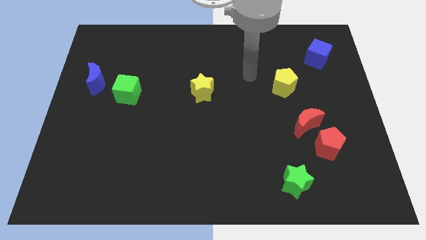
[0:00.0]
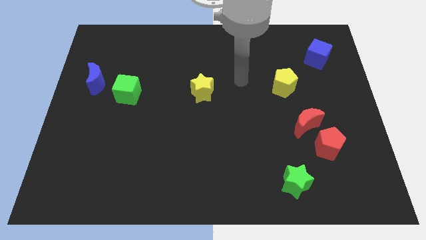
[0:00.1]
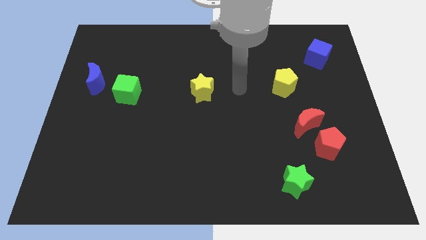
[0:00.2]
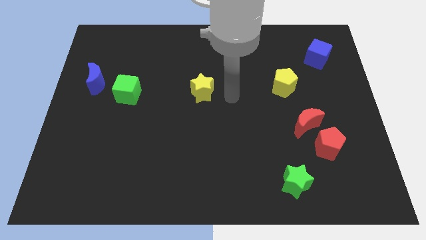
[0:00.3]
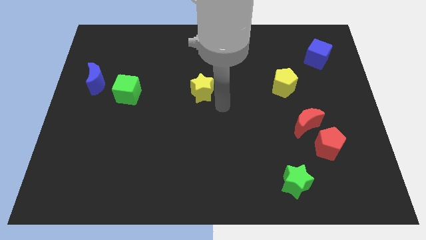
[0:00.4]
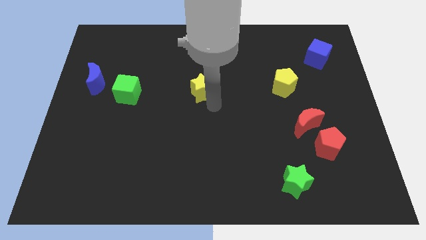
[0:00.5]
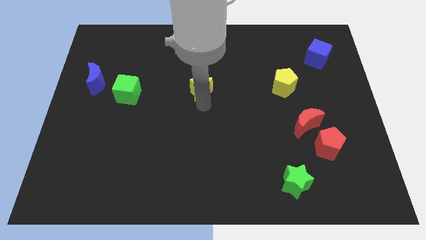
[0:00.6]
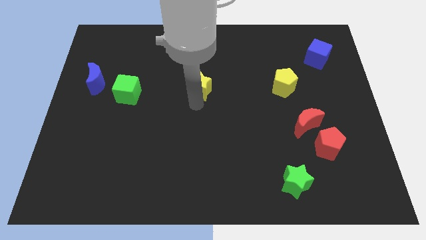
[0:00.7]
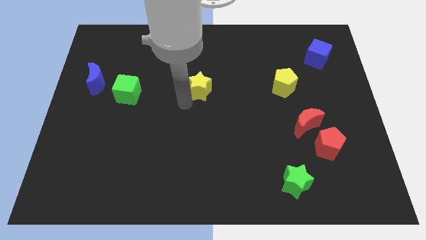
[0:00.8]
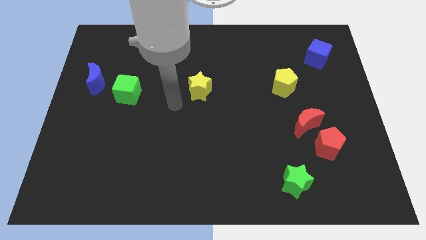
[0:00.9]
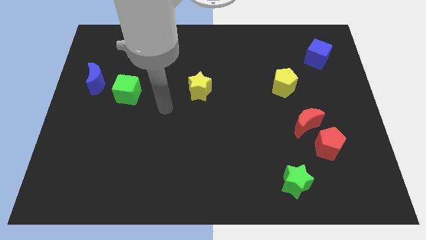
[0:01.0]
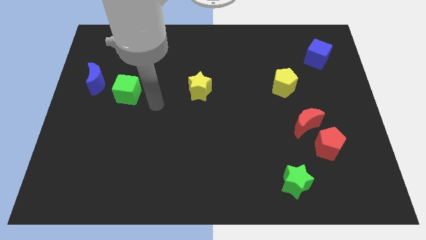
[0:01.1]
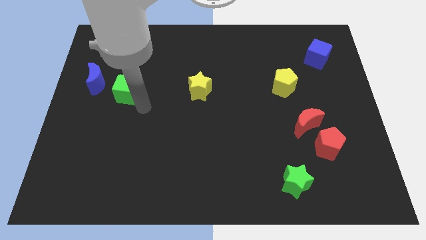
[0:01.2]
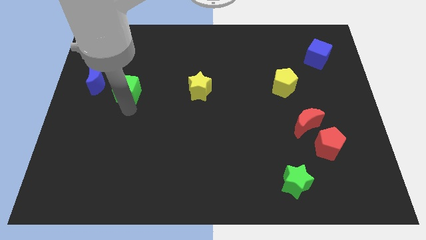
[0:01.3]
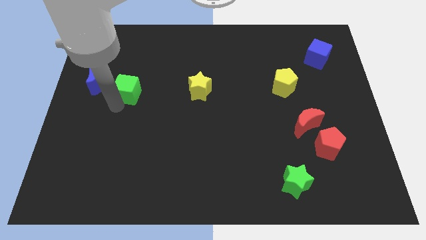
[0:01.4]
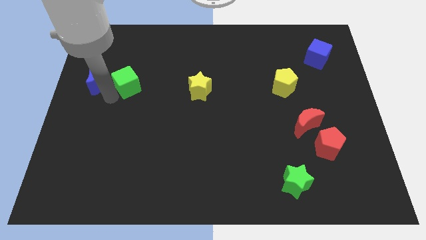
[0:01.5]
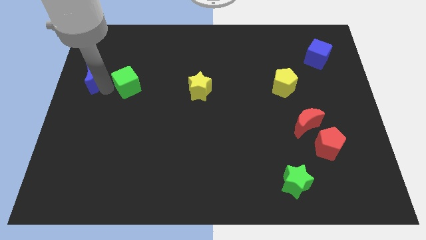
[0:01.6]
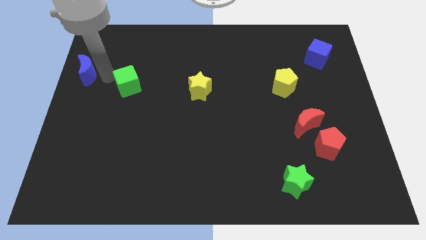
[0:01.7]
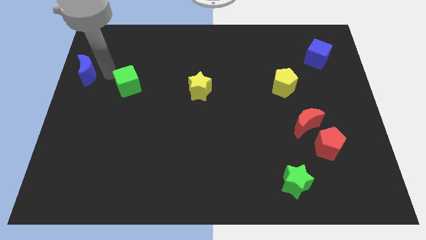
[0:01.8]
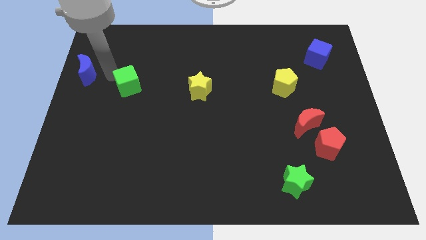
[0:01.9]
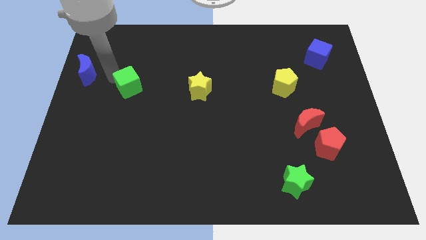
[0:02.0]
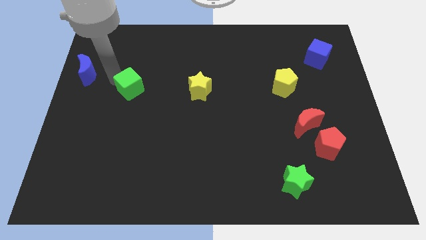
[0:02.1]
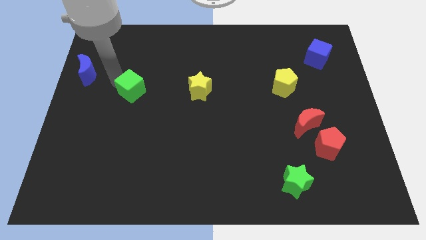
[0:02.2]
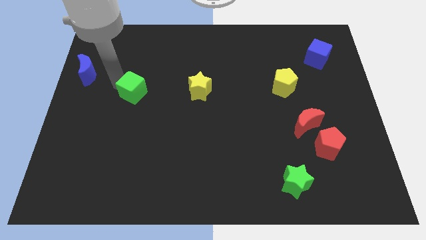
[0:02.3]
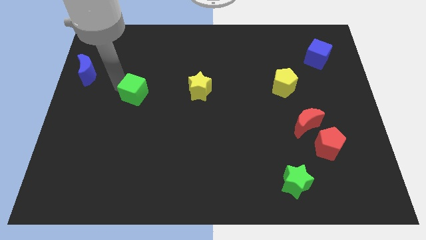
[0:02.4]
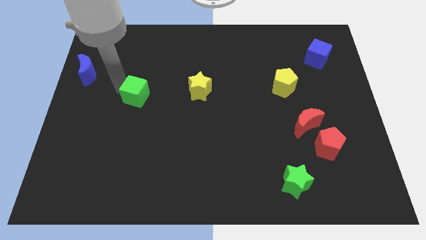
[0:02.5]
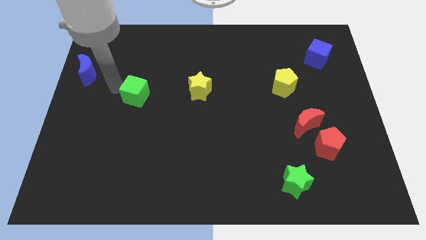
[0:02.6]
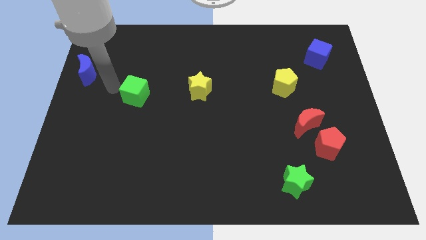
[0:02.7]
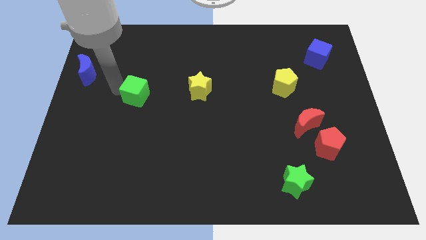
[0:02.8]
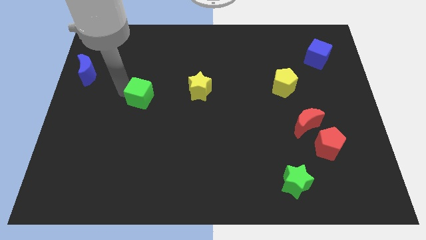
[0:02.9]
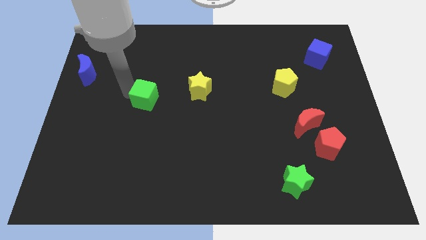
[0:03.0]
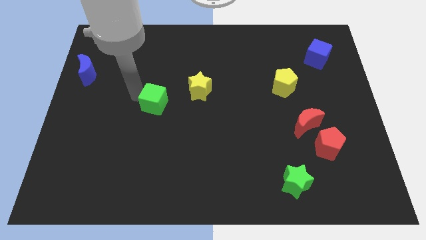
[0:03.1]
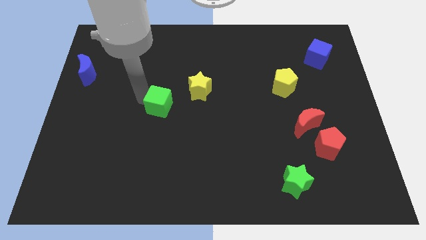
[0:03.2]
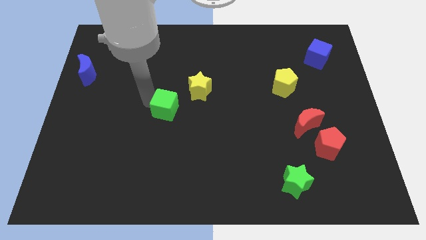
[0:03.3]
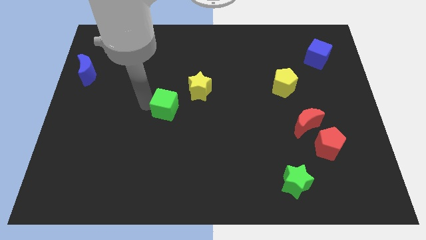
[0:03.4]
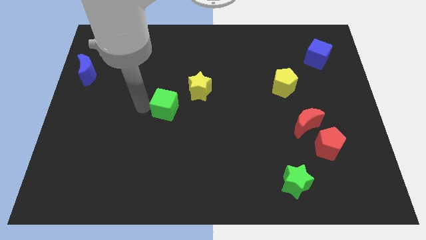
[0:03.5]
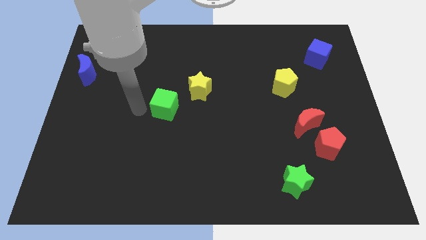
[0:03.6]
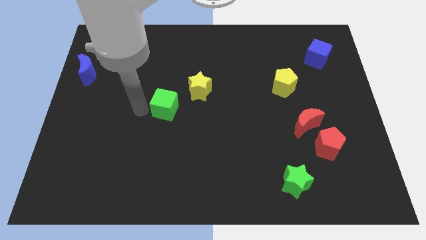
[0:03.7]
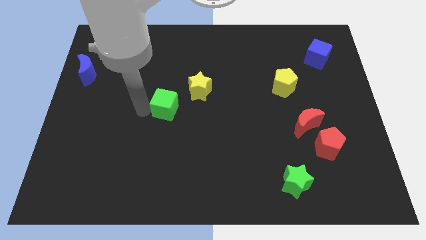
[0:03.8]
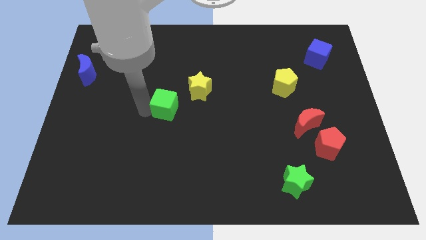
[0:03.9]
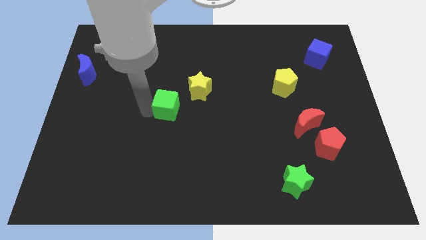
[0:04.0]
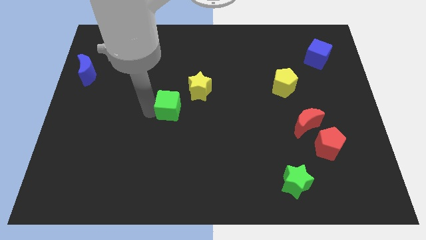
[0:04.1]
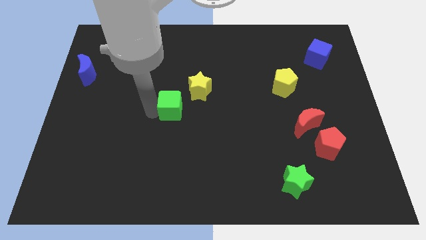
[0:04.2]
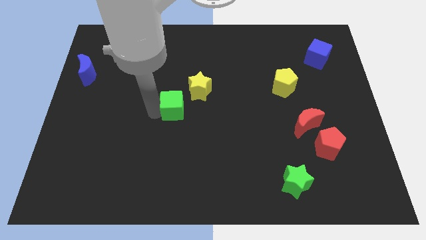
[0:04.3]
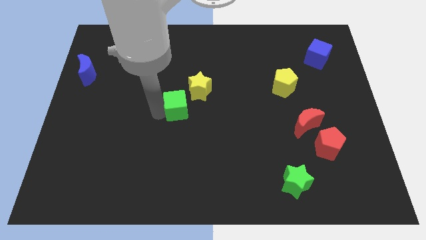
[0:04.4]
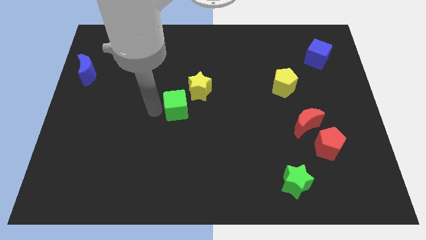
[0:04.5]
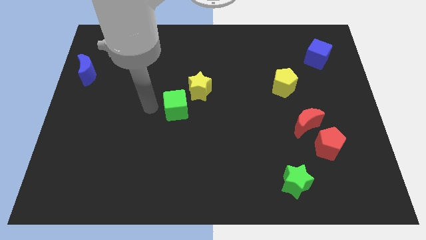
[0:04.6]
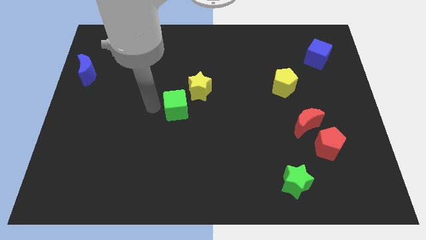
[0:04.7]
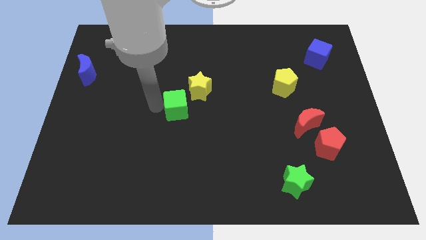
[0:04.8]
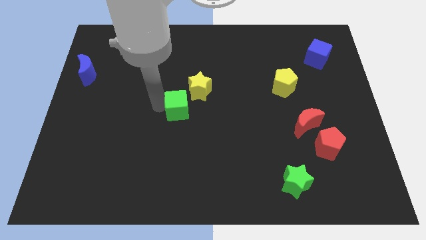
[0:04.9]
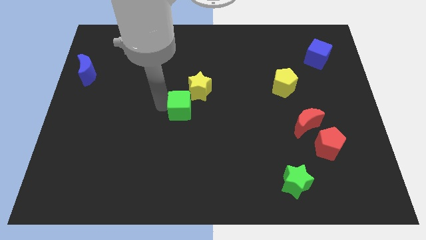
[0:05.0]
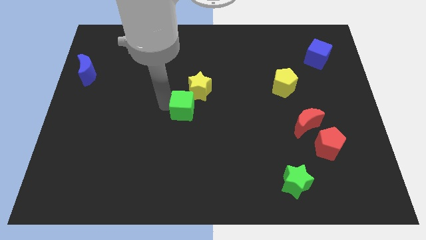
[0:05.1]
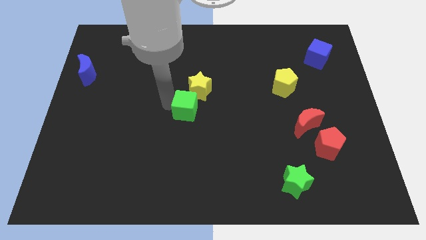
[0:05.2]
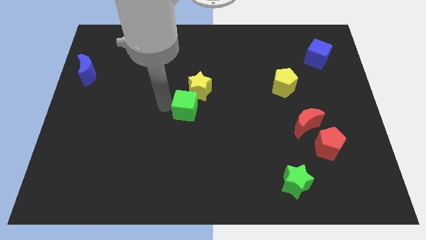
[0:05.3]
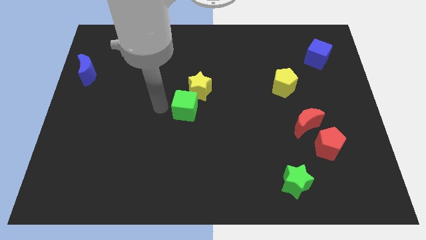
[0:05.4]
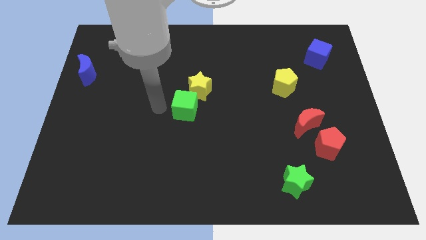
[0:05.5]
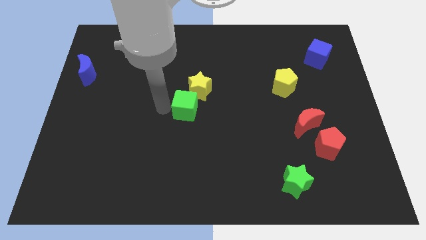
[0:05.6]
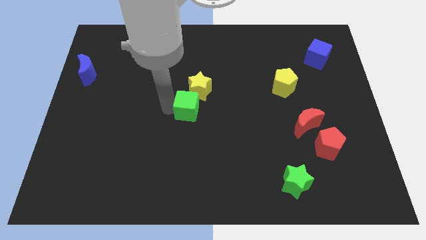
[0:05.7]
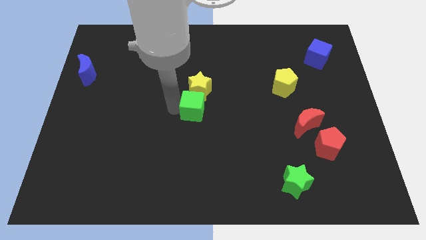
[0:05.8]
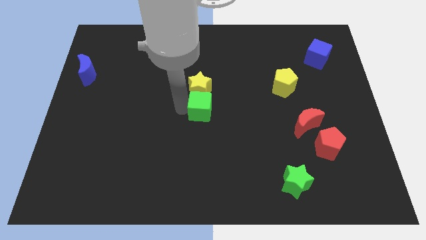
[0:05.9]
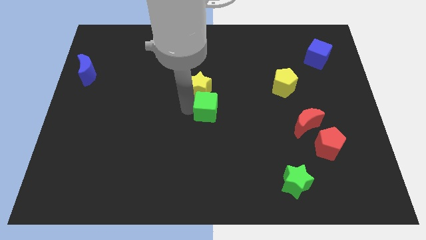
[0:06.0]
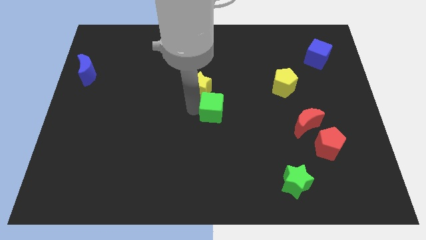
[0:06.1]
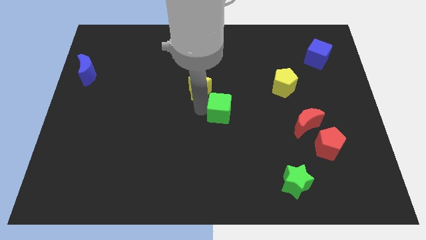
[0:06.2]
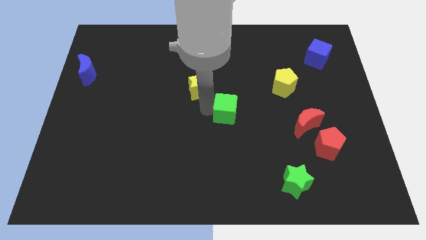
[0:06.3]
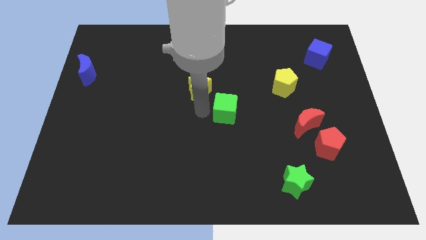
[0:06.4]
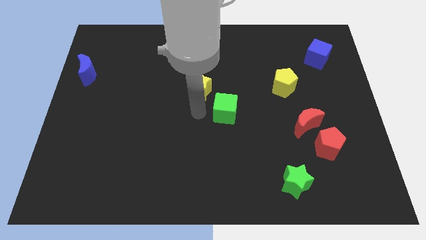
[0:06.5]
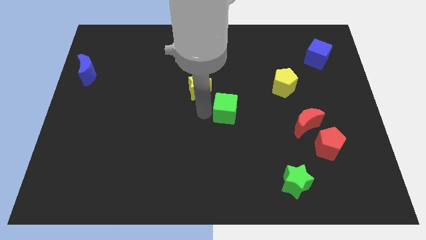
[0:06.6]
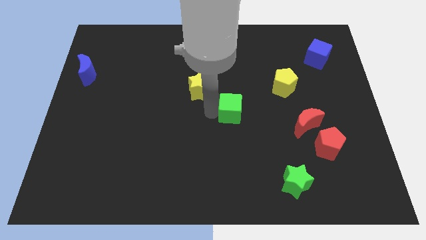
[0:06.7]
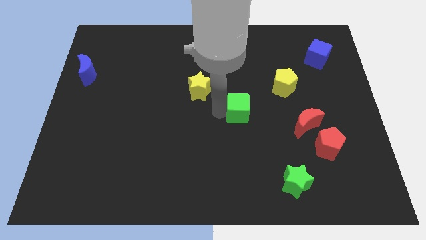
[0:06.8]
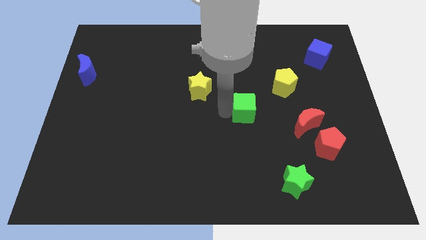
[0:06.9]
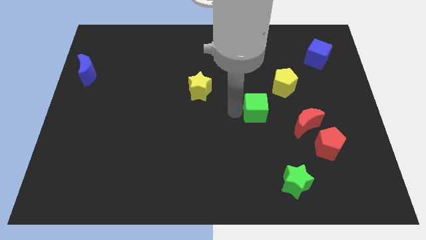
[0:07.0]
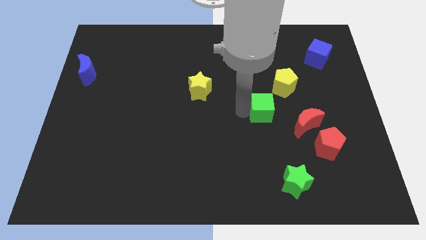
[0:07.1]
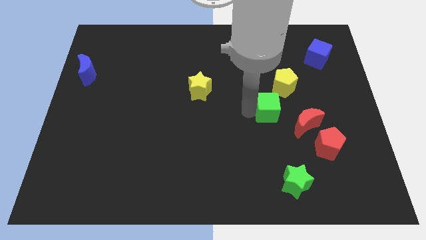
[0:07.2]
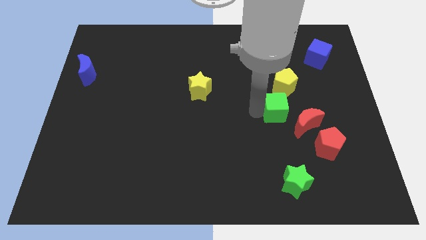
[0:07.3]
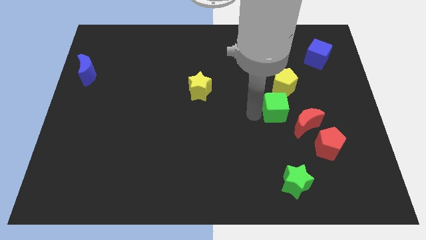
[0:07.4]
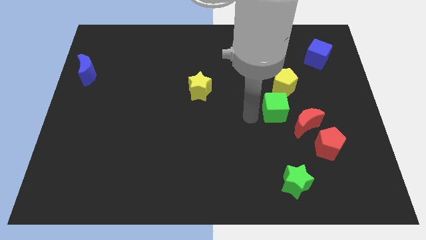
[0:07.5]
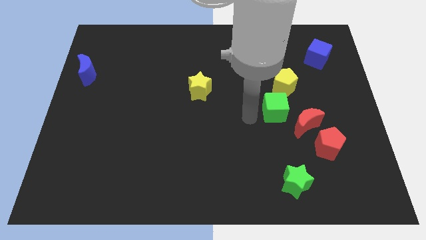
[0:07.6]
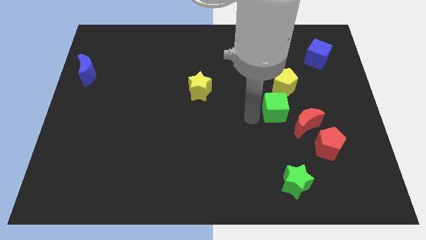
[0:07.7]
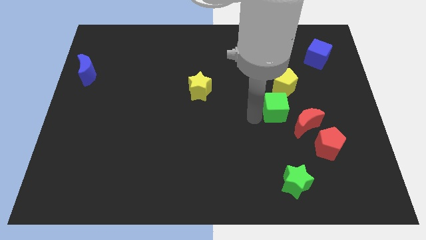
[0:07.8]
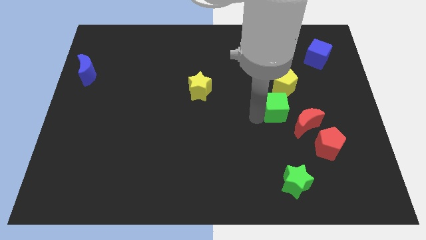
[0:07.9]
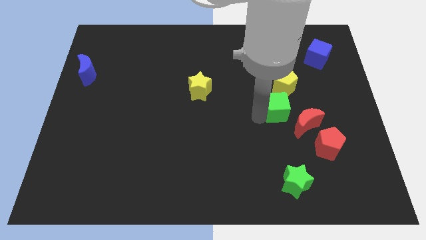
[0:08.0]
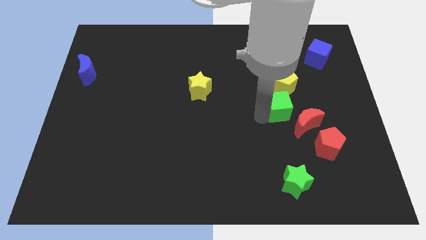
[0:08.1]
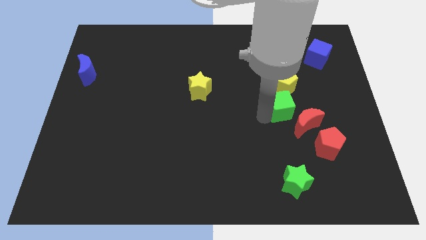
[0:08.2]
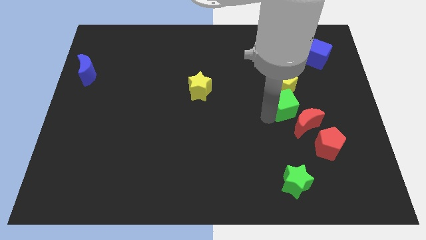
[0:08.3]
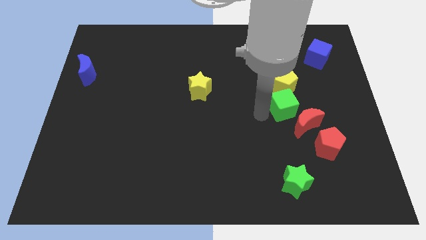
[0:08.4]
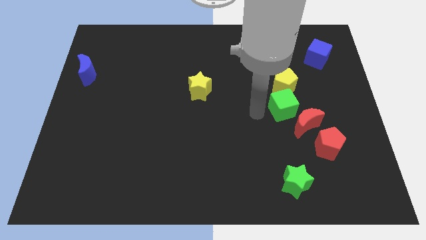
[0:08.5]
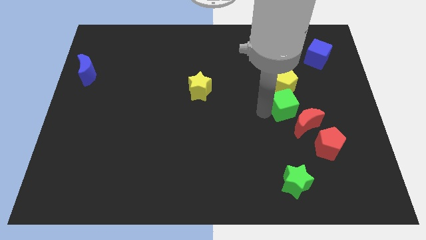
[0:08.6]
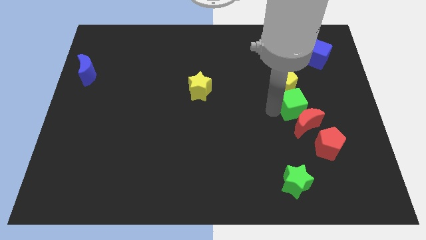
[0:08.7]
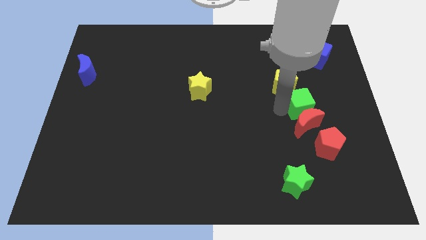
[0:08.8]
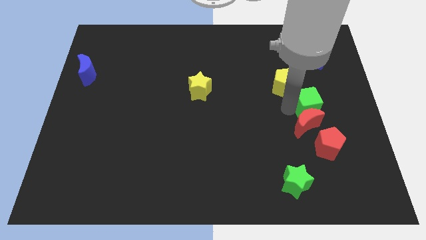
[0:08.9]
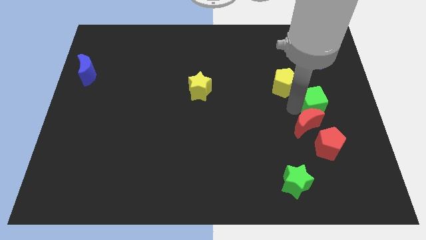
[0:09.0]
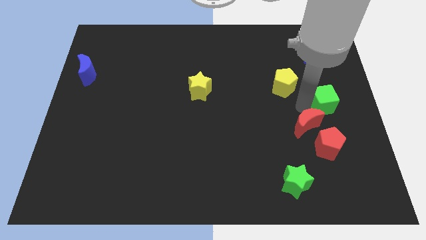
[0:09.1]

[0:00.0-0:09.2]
put the green cube to the right side of the board
